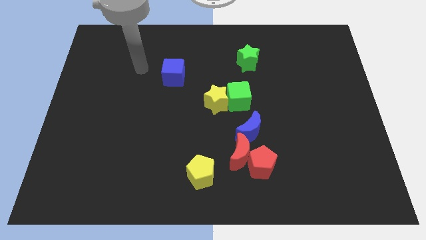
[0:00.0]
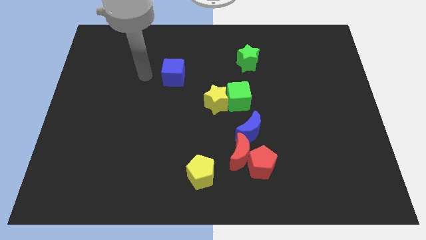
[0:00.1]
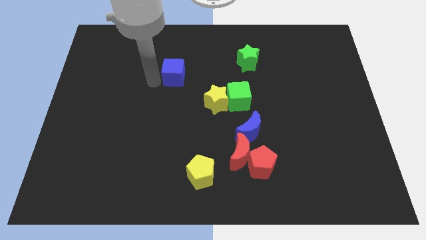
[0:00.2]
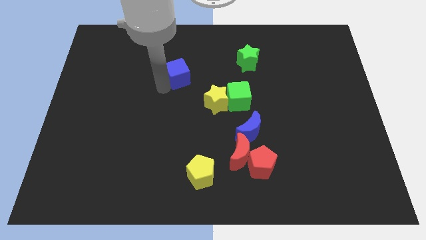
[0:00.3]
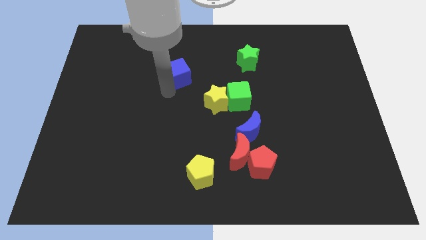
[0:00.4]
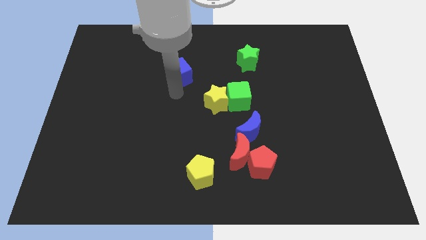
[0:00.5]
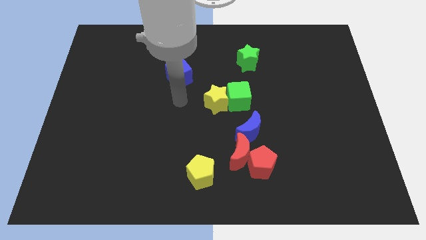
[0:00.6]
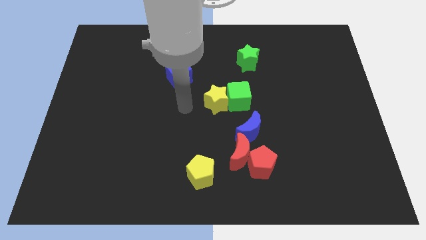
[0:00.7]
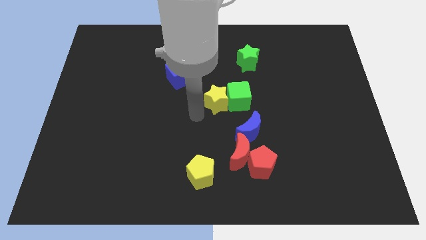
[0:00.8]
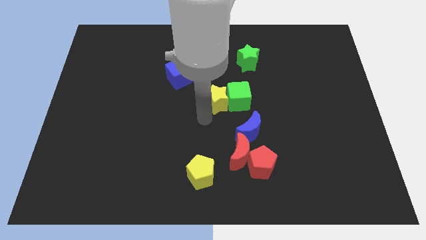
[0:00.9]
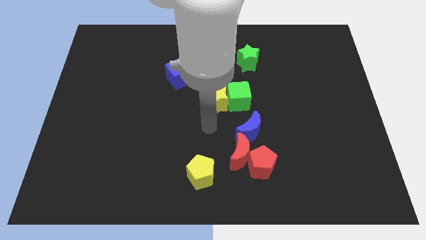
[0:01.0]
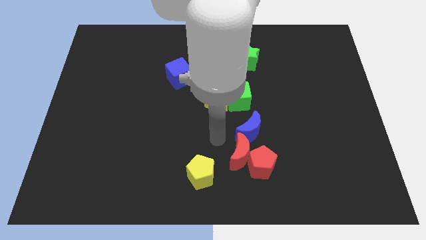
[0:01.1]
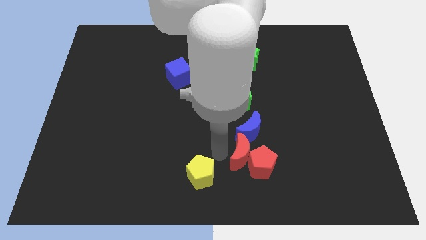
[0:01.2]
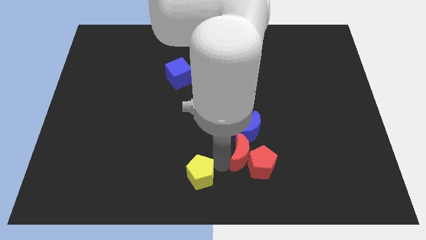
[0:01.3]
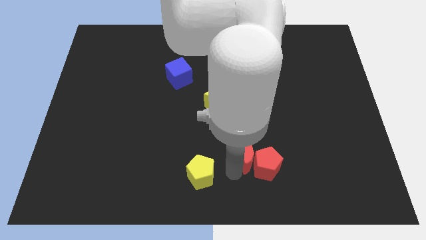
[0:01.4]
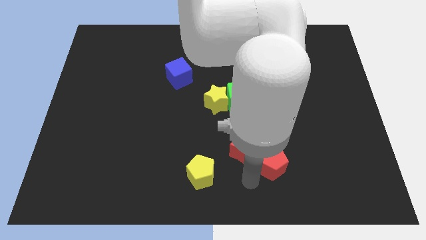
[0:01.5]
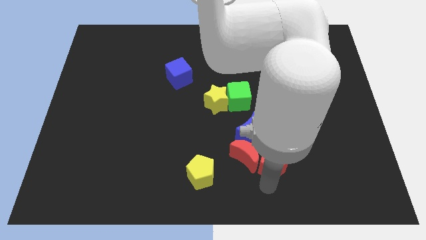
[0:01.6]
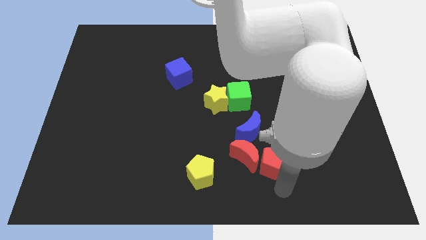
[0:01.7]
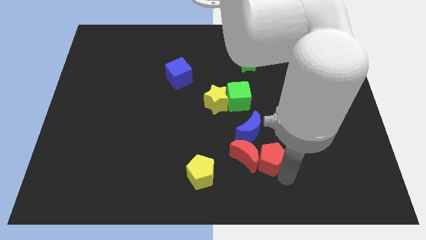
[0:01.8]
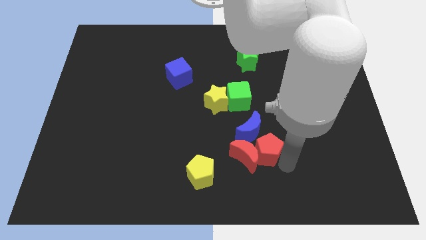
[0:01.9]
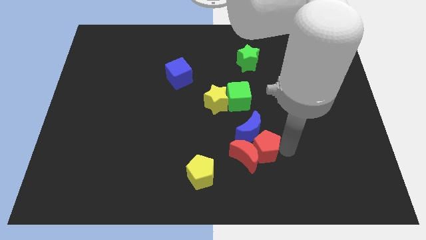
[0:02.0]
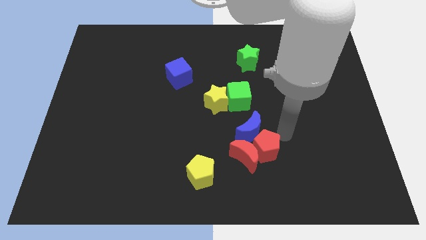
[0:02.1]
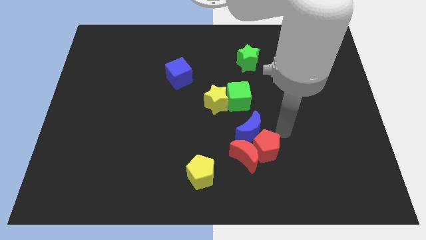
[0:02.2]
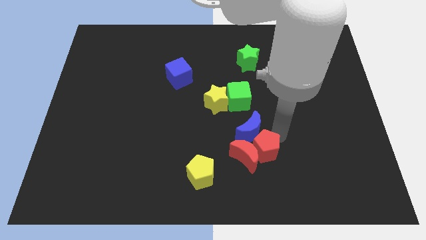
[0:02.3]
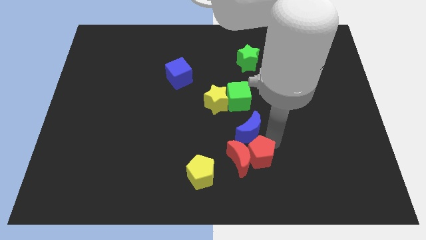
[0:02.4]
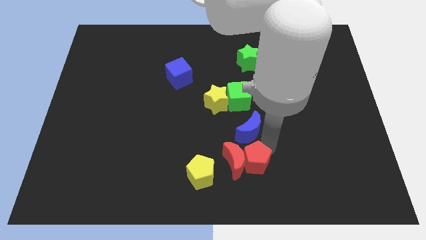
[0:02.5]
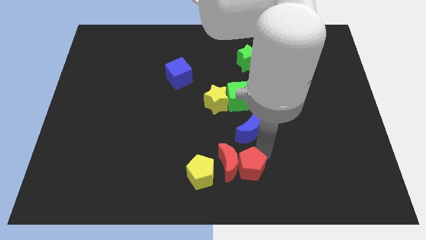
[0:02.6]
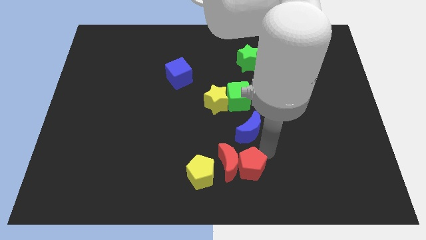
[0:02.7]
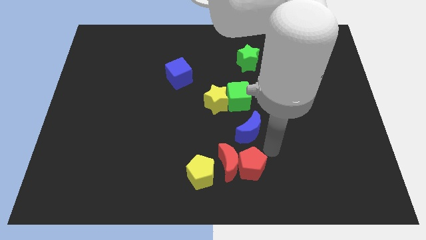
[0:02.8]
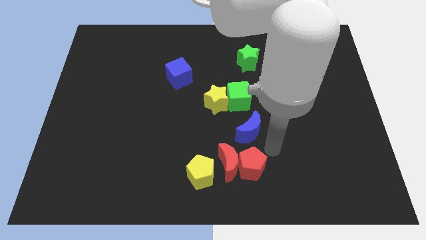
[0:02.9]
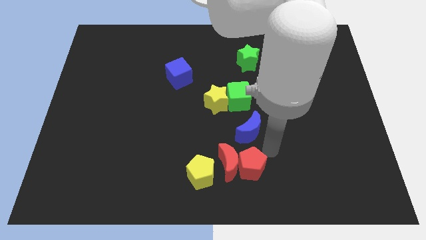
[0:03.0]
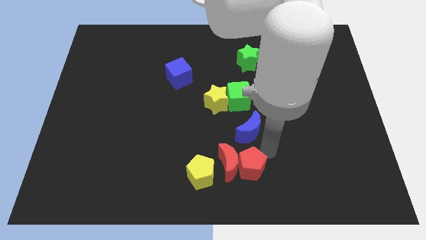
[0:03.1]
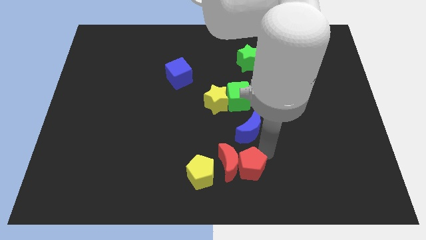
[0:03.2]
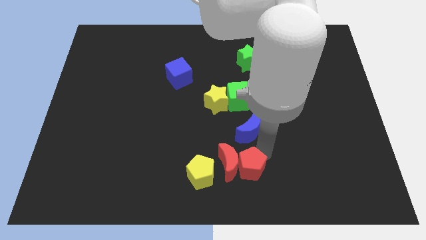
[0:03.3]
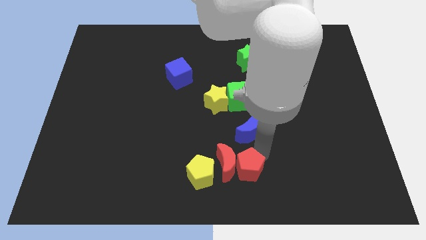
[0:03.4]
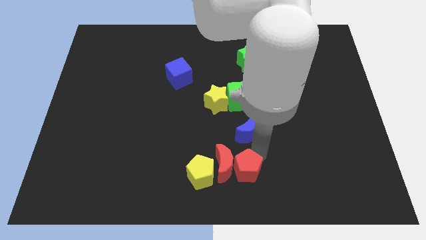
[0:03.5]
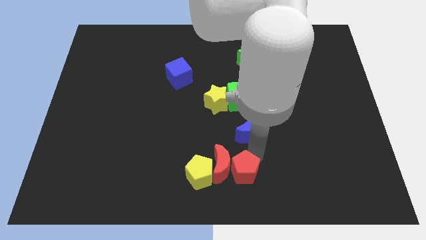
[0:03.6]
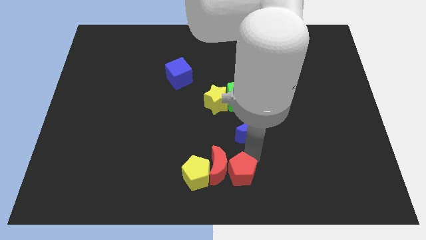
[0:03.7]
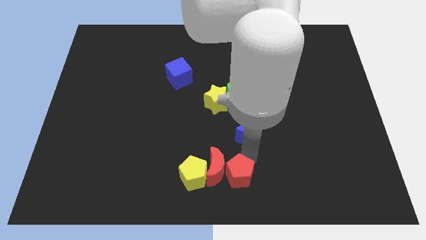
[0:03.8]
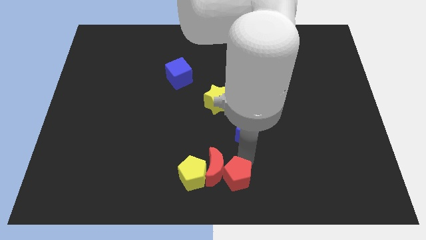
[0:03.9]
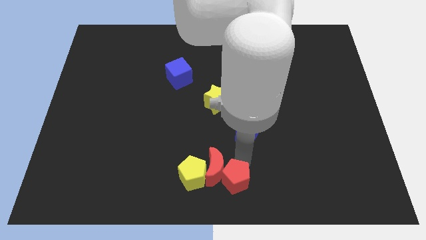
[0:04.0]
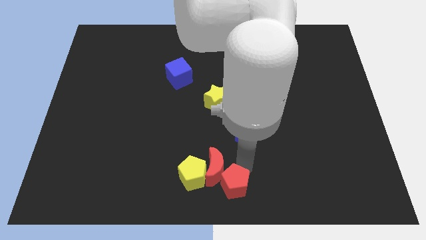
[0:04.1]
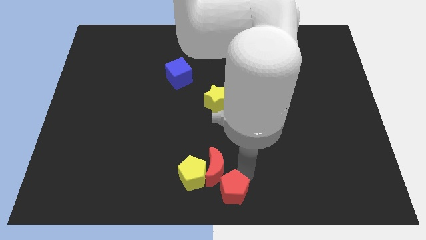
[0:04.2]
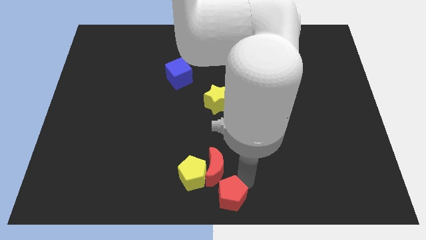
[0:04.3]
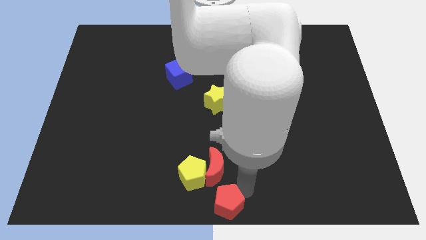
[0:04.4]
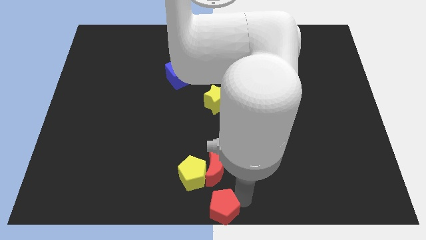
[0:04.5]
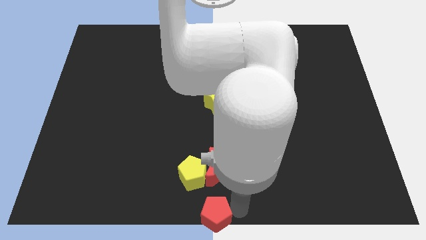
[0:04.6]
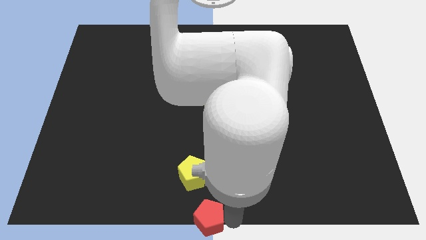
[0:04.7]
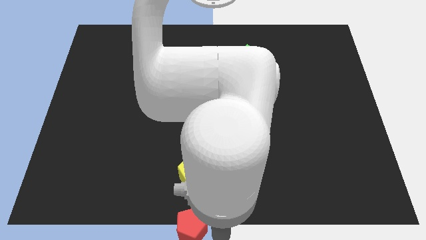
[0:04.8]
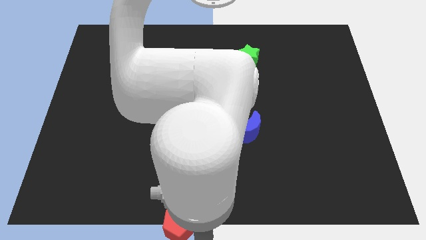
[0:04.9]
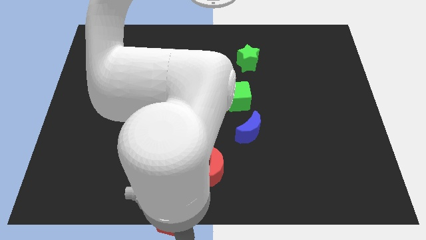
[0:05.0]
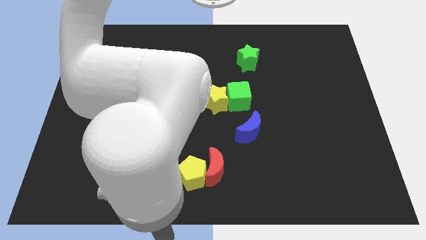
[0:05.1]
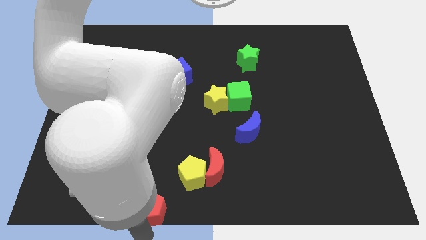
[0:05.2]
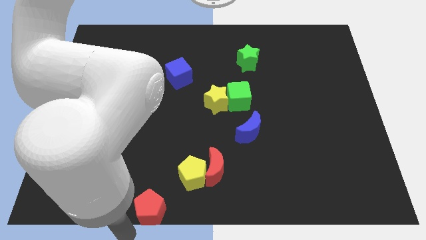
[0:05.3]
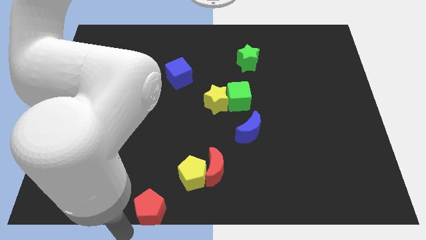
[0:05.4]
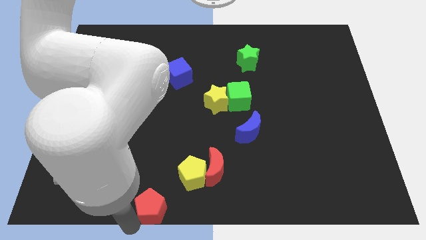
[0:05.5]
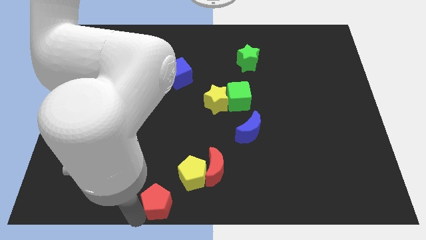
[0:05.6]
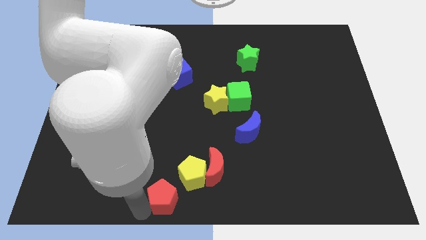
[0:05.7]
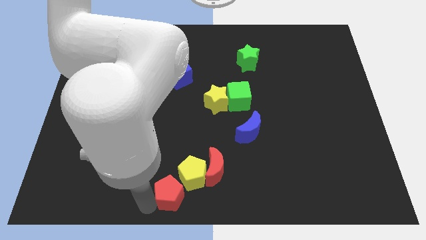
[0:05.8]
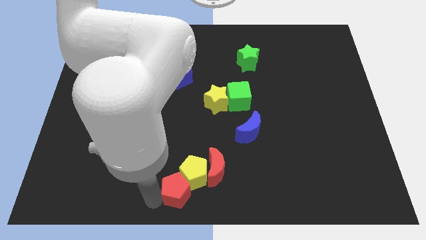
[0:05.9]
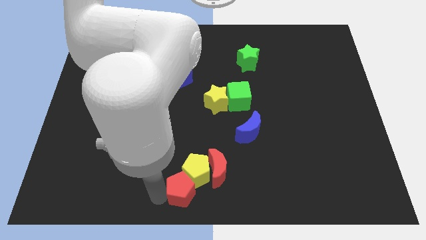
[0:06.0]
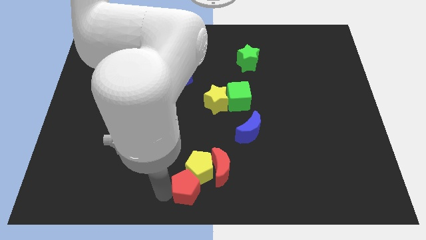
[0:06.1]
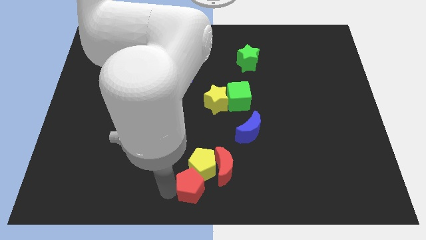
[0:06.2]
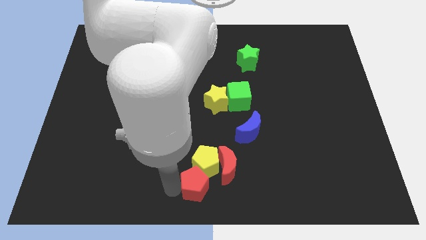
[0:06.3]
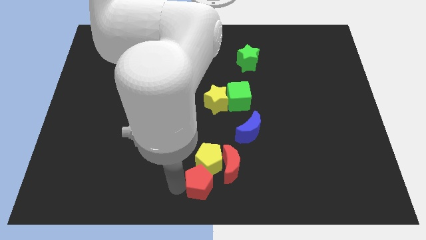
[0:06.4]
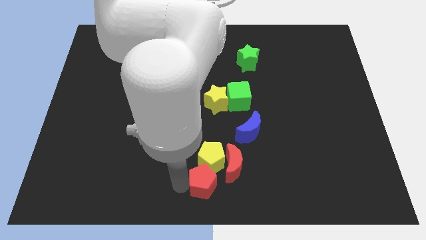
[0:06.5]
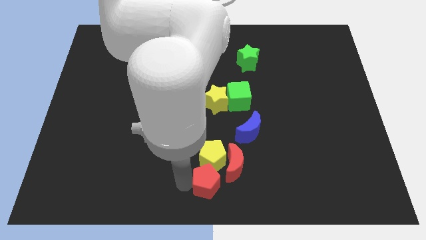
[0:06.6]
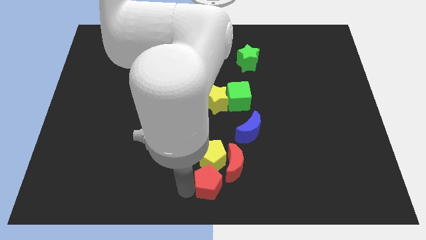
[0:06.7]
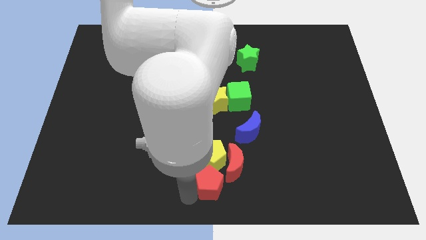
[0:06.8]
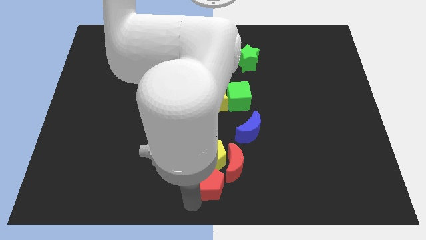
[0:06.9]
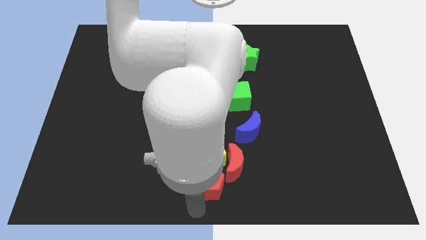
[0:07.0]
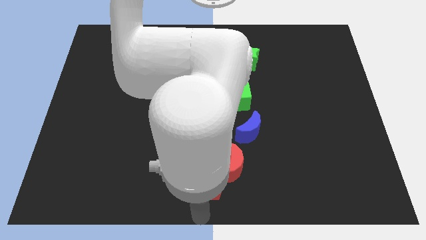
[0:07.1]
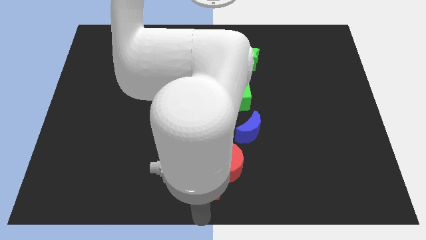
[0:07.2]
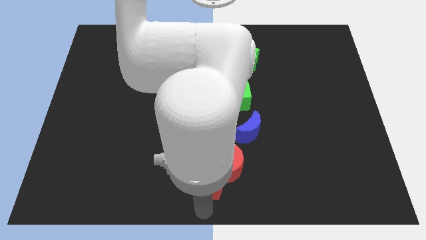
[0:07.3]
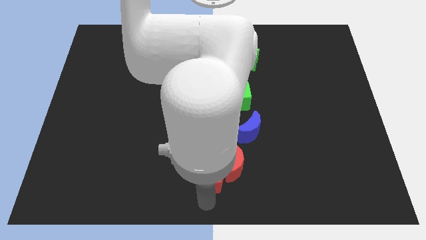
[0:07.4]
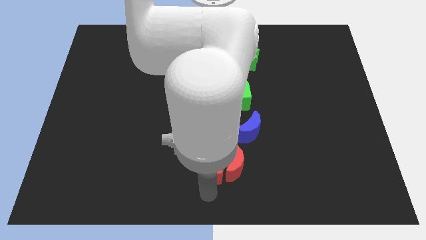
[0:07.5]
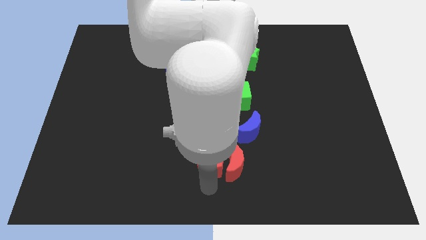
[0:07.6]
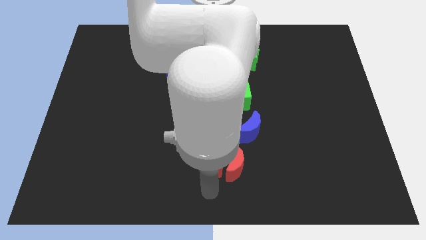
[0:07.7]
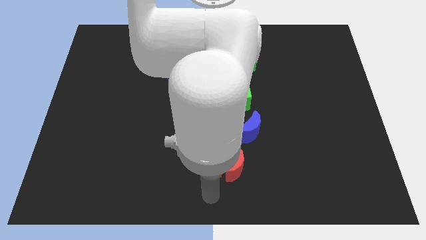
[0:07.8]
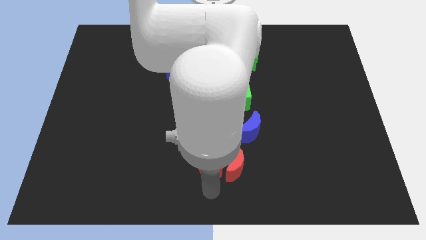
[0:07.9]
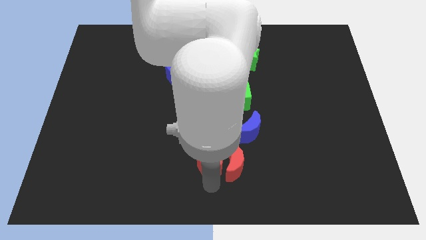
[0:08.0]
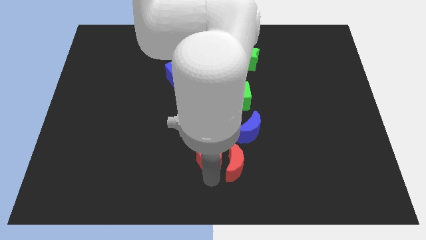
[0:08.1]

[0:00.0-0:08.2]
slide the red pentagon upwards and then left somewhat
